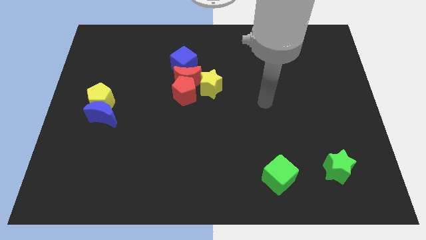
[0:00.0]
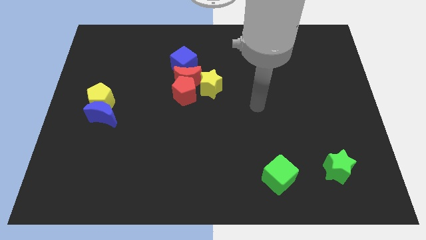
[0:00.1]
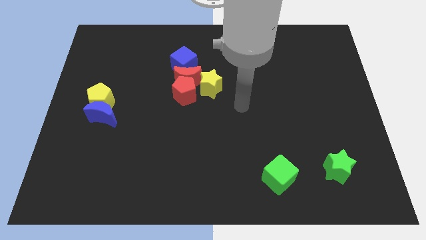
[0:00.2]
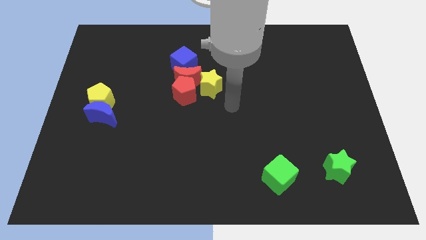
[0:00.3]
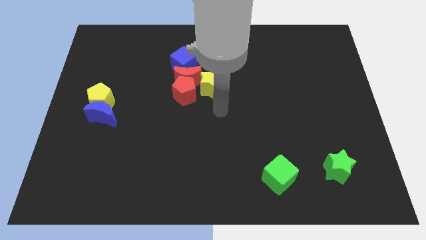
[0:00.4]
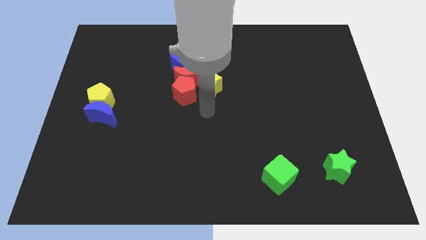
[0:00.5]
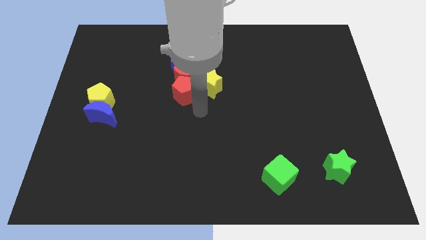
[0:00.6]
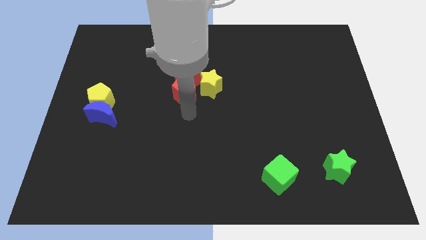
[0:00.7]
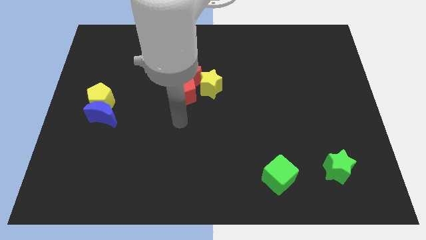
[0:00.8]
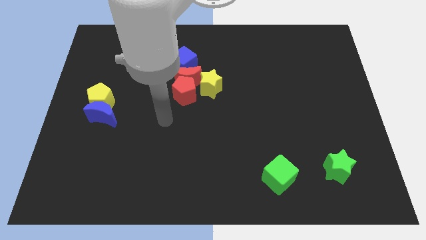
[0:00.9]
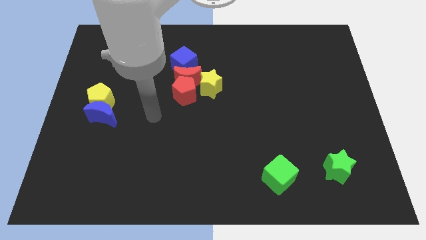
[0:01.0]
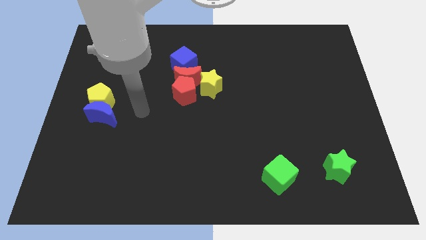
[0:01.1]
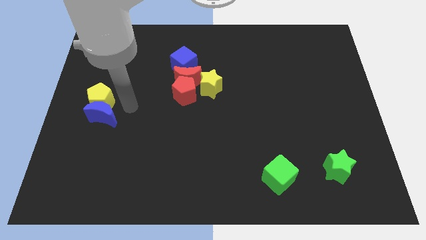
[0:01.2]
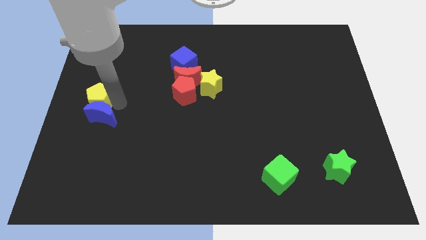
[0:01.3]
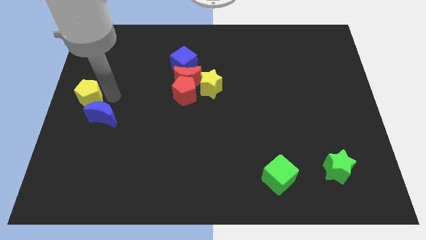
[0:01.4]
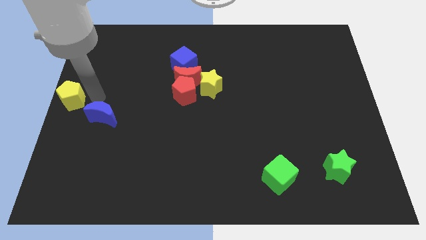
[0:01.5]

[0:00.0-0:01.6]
separate the blue moon from the yellow pentagon

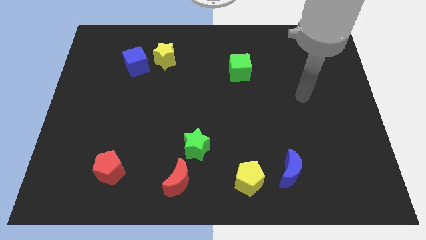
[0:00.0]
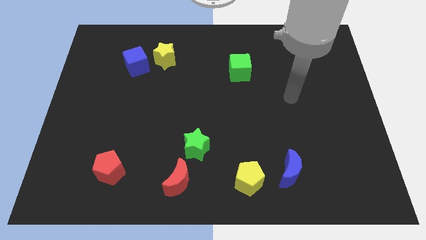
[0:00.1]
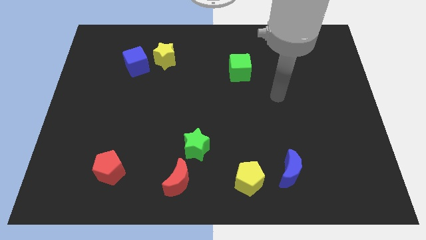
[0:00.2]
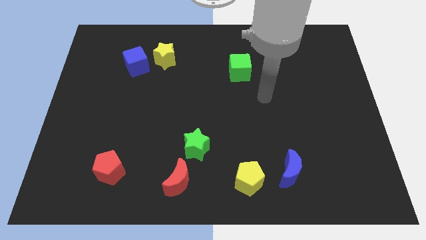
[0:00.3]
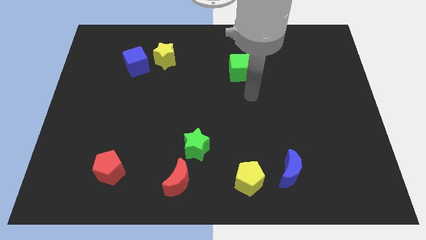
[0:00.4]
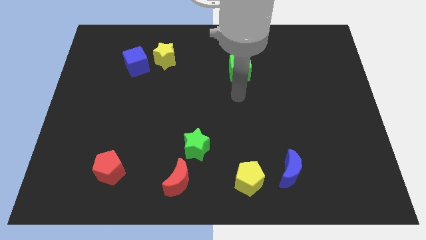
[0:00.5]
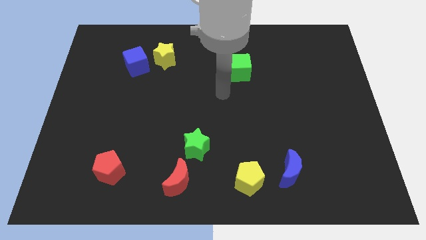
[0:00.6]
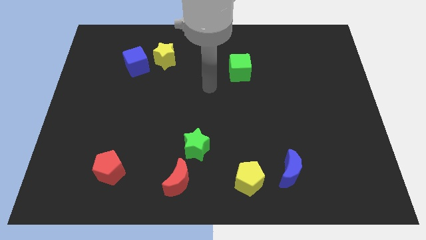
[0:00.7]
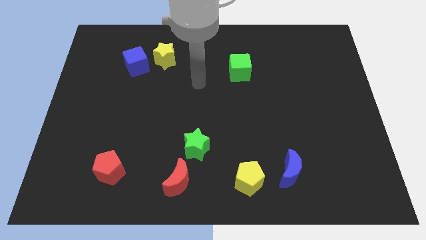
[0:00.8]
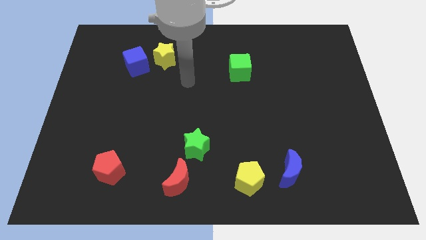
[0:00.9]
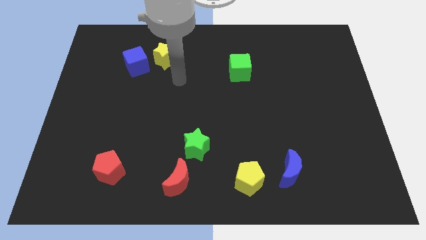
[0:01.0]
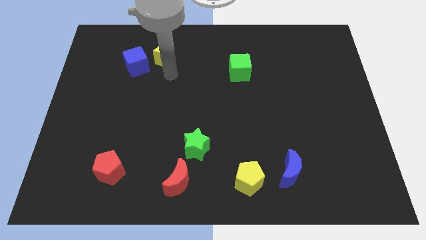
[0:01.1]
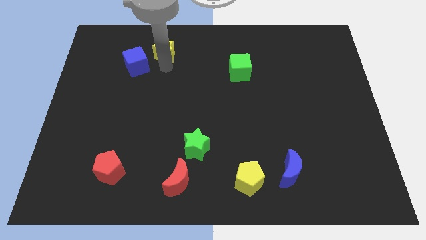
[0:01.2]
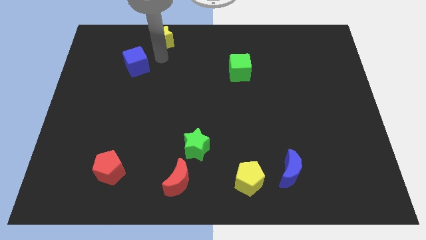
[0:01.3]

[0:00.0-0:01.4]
separate the blue cube from the yellow star

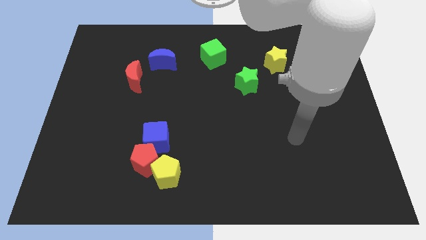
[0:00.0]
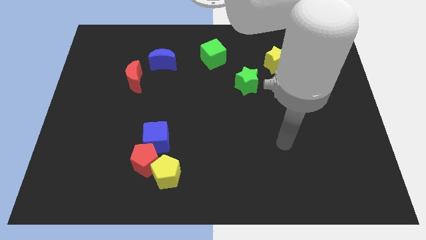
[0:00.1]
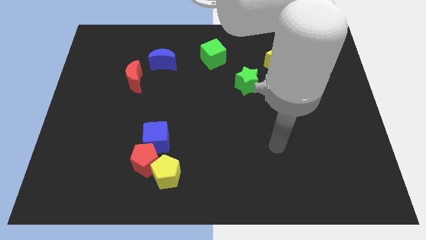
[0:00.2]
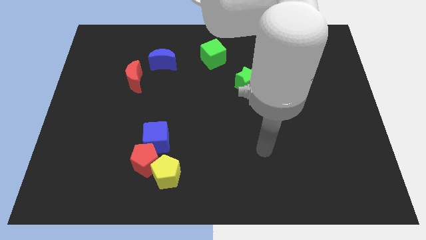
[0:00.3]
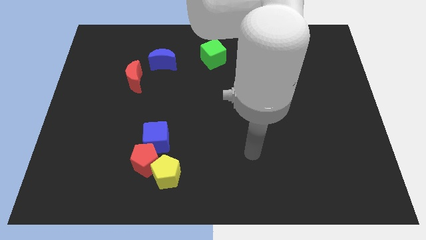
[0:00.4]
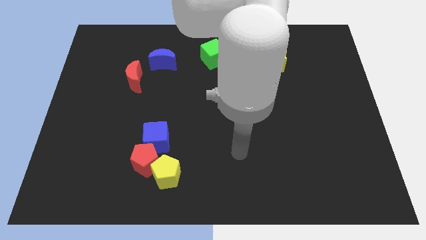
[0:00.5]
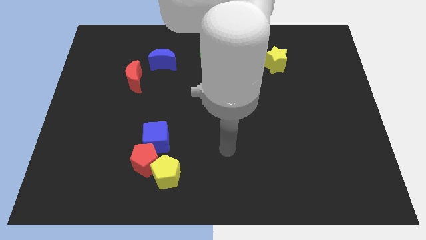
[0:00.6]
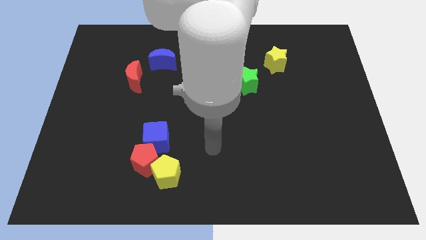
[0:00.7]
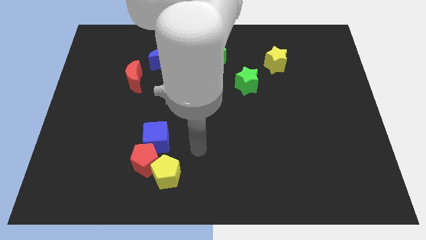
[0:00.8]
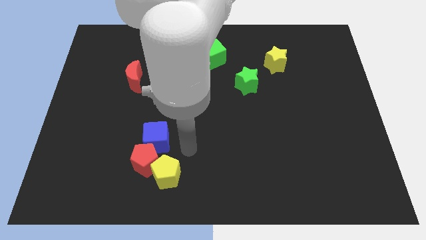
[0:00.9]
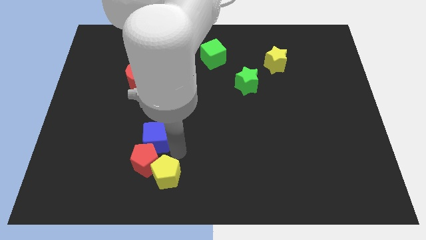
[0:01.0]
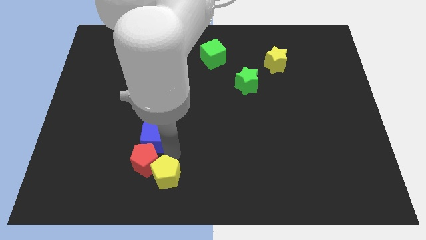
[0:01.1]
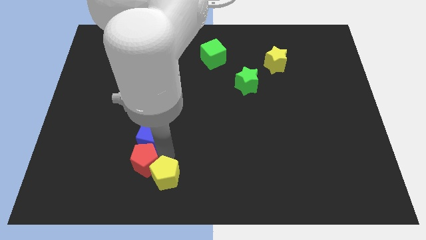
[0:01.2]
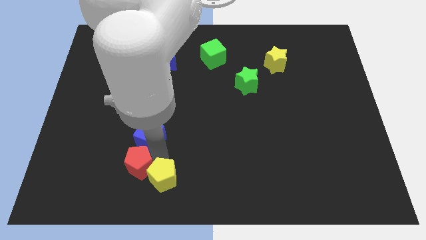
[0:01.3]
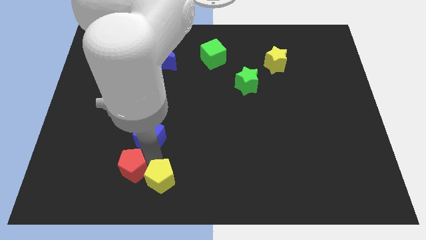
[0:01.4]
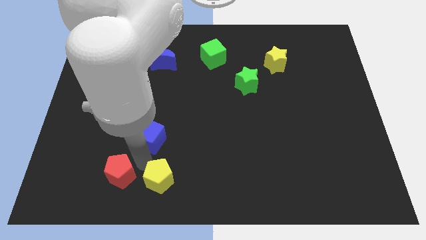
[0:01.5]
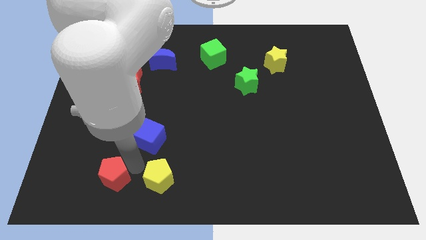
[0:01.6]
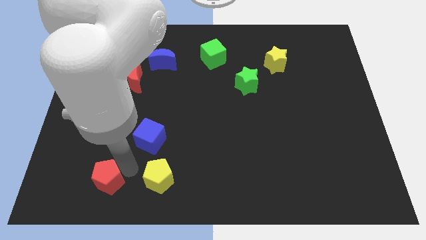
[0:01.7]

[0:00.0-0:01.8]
pull the red pentagon apart from the yellow pentagon and blue cube

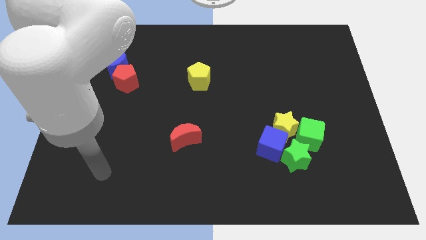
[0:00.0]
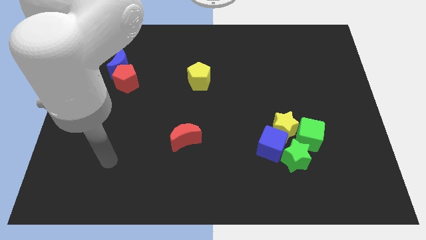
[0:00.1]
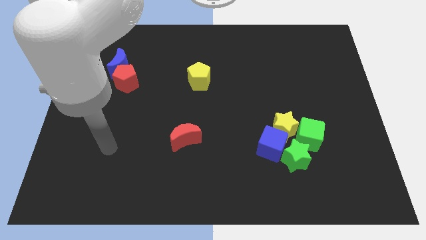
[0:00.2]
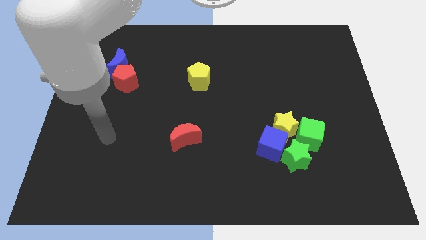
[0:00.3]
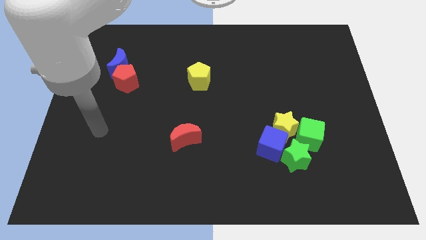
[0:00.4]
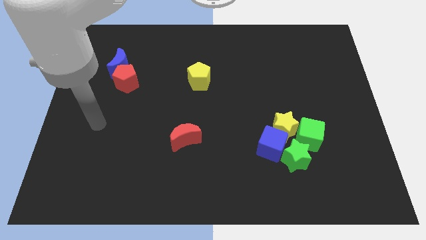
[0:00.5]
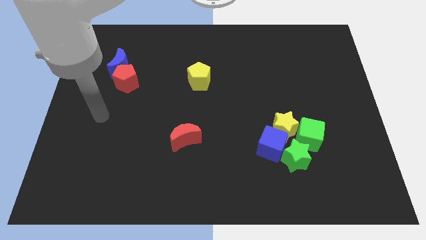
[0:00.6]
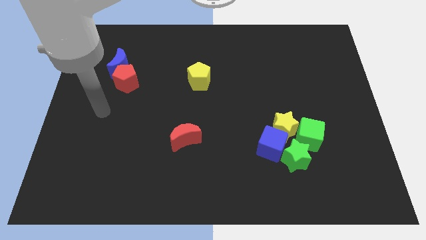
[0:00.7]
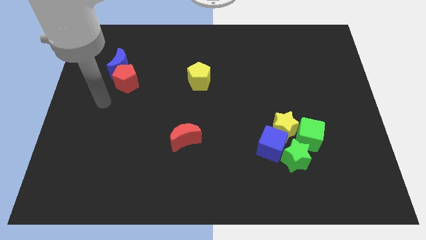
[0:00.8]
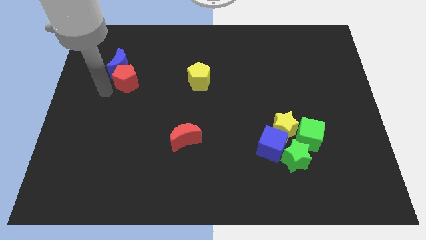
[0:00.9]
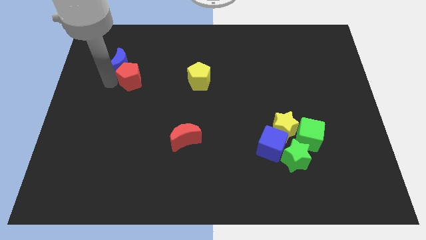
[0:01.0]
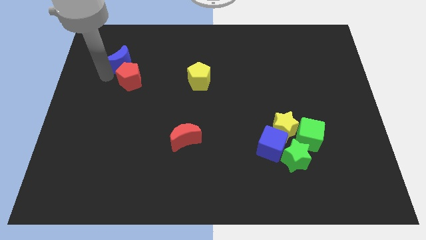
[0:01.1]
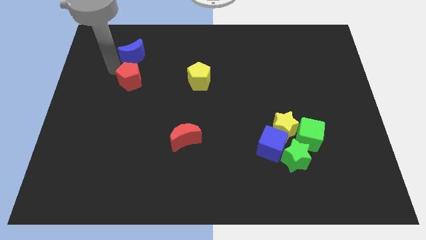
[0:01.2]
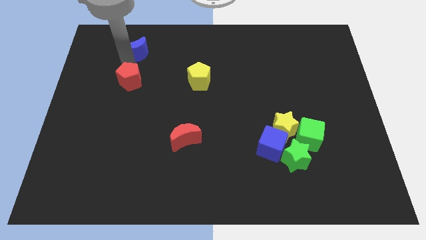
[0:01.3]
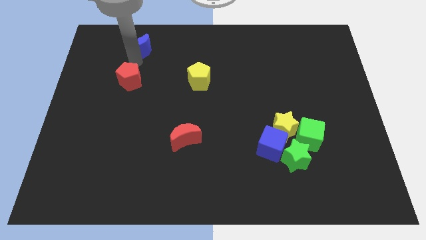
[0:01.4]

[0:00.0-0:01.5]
separate the red pentagon from the blue moon

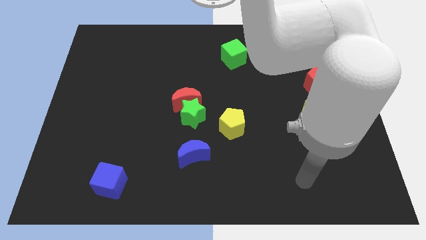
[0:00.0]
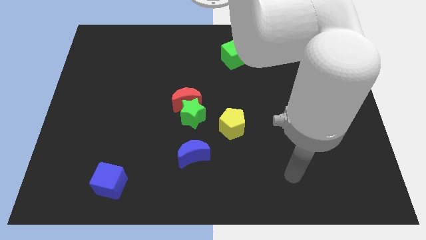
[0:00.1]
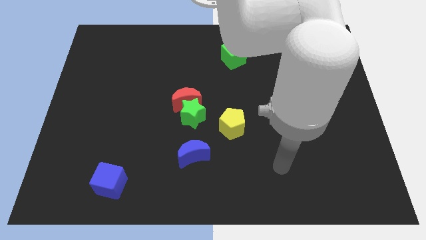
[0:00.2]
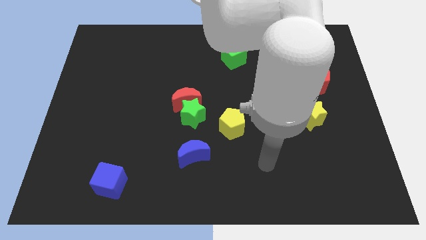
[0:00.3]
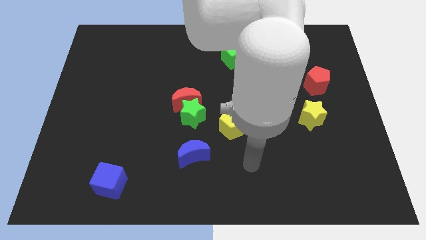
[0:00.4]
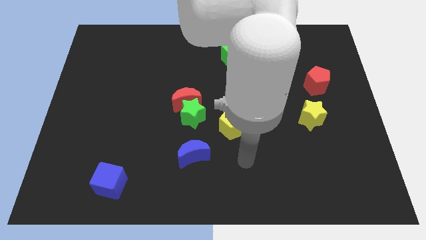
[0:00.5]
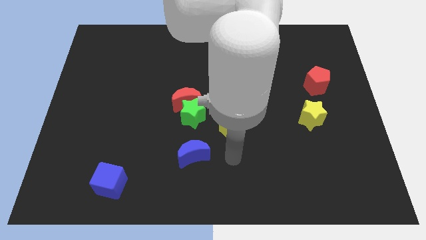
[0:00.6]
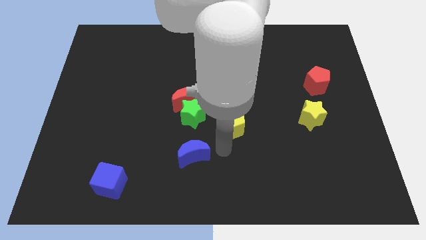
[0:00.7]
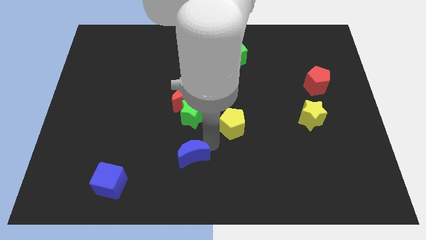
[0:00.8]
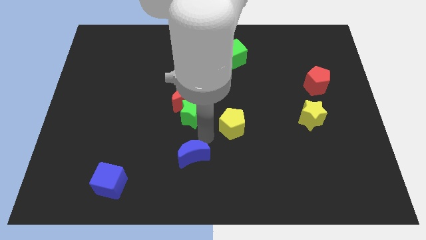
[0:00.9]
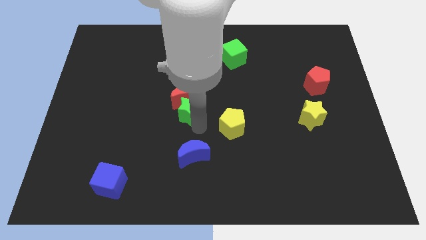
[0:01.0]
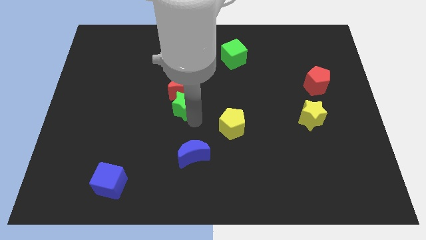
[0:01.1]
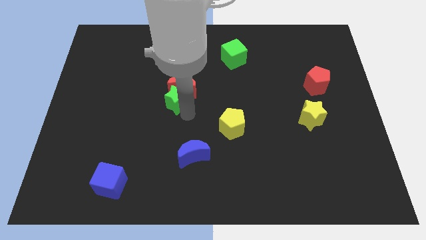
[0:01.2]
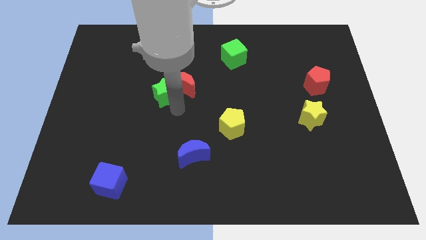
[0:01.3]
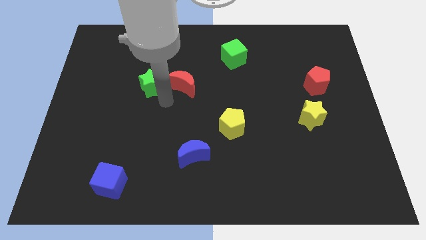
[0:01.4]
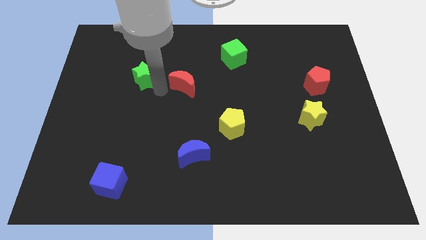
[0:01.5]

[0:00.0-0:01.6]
separate the red moon from the green star

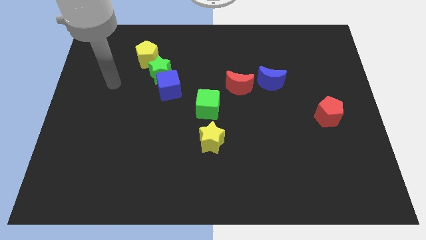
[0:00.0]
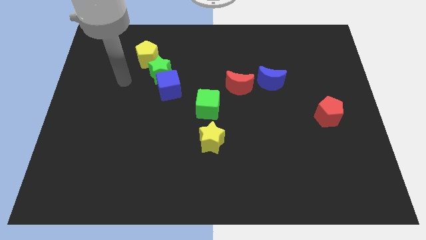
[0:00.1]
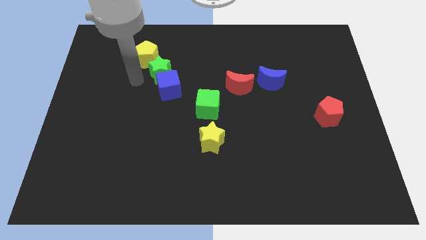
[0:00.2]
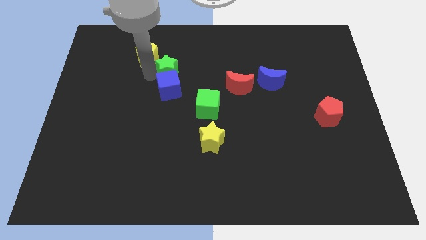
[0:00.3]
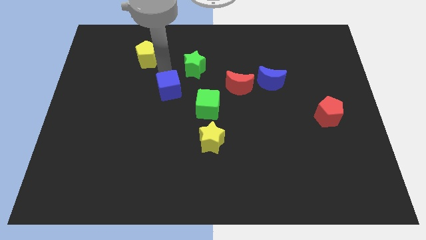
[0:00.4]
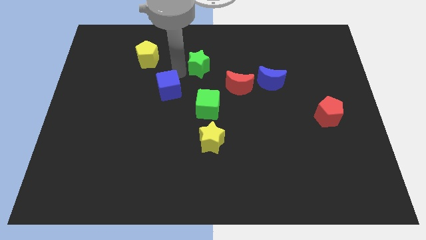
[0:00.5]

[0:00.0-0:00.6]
pull the blue cube apart from the green star

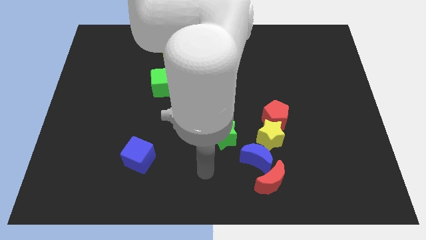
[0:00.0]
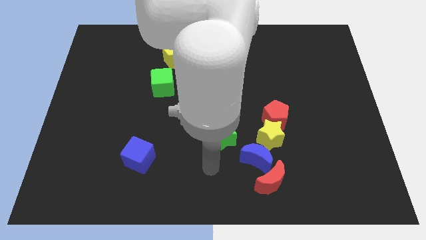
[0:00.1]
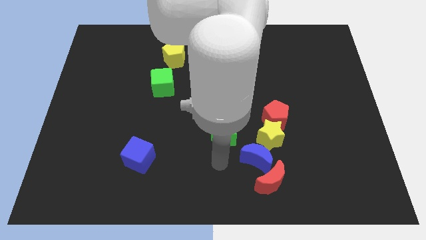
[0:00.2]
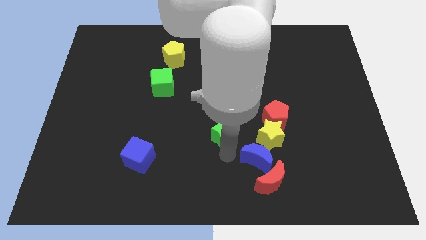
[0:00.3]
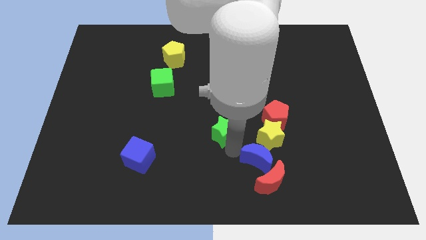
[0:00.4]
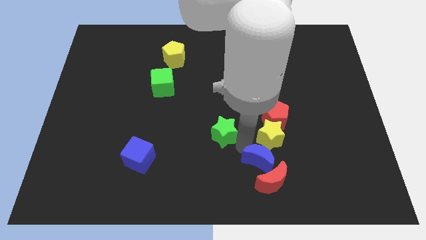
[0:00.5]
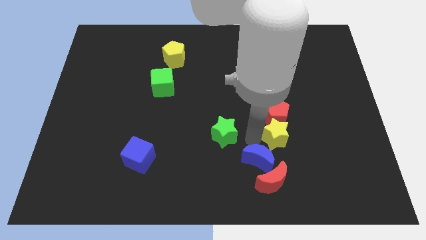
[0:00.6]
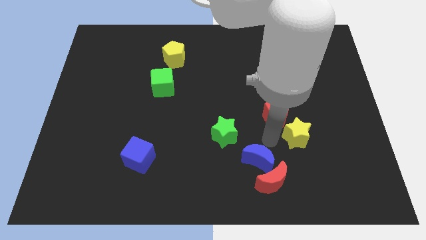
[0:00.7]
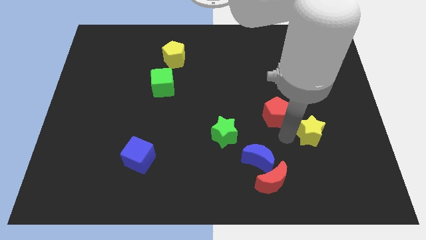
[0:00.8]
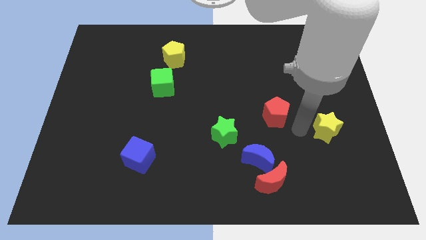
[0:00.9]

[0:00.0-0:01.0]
separate the red pentagon from the yellow star
